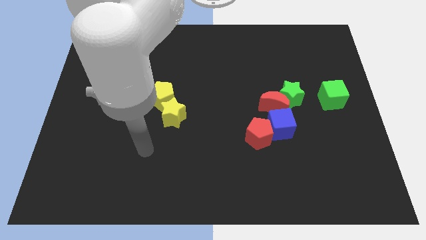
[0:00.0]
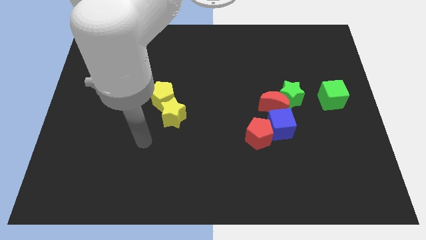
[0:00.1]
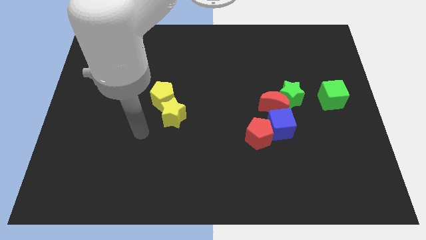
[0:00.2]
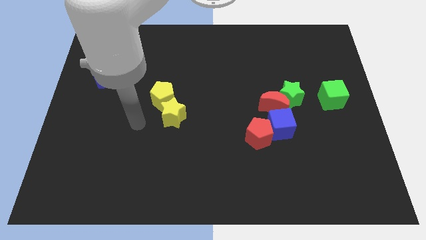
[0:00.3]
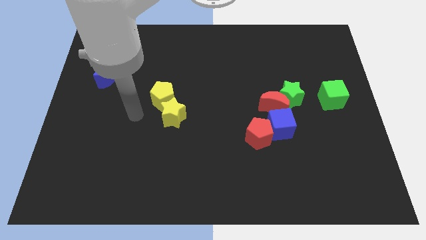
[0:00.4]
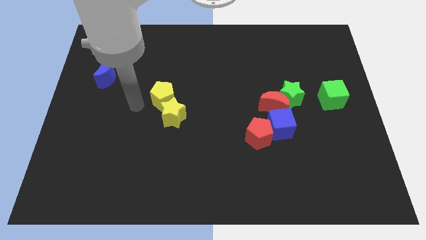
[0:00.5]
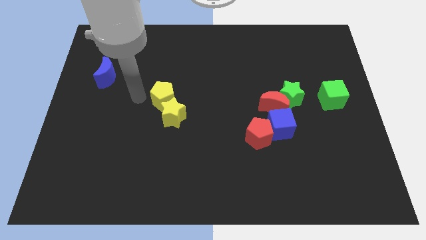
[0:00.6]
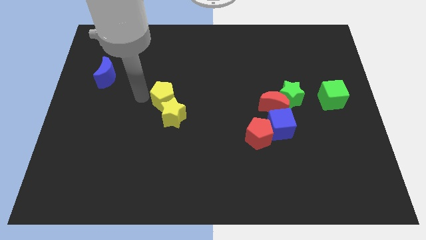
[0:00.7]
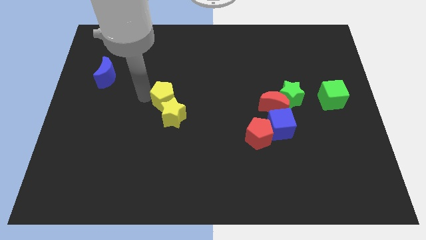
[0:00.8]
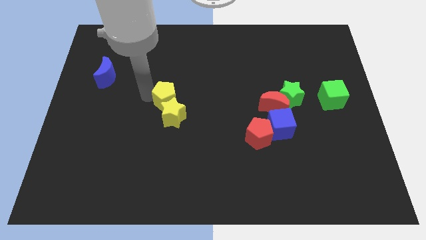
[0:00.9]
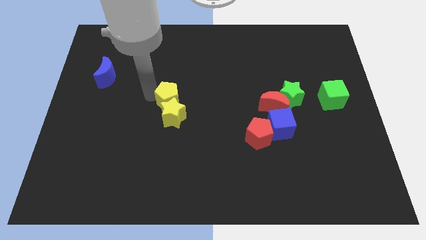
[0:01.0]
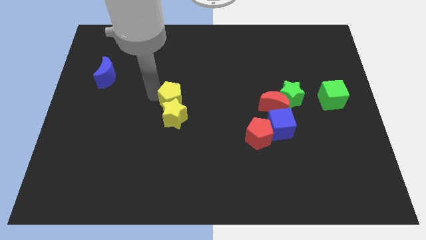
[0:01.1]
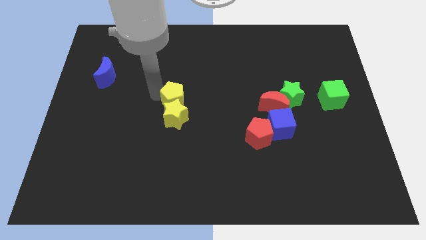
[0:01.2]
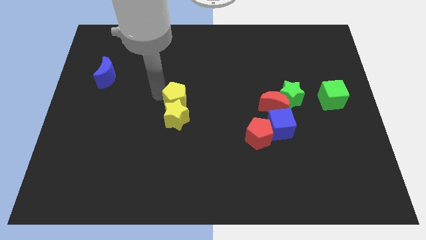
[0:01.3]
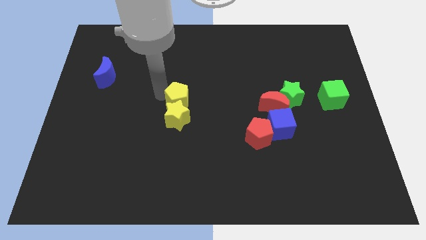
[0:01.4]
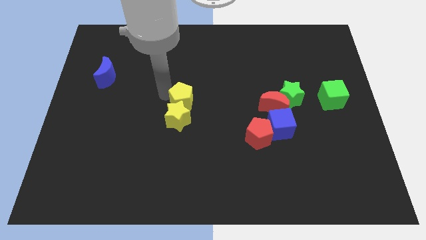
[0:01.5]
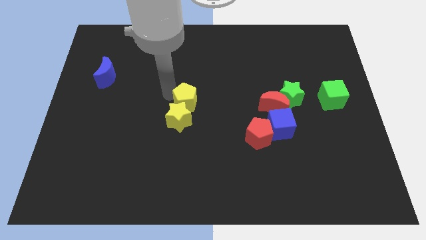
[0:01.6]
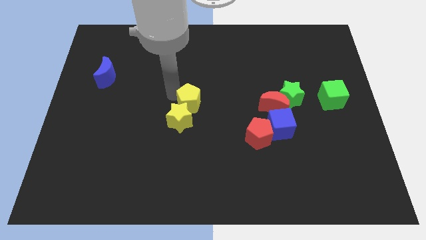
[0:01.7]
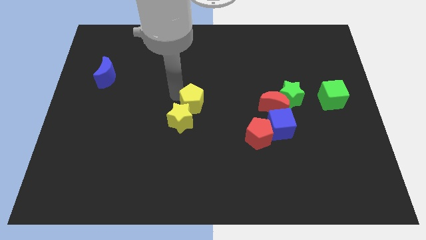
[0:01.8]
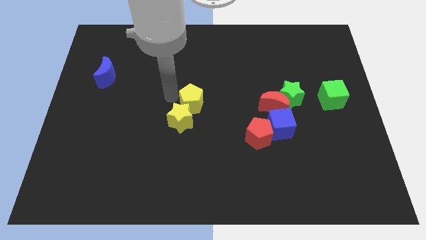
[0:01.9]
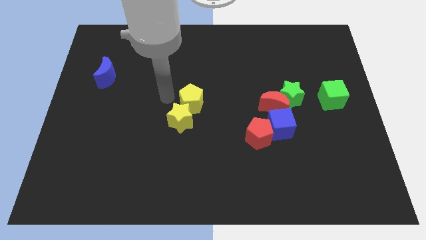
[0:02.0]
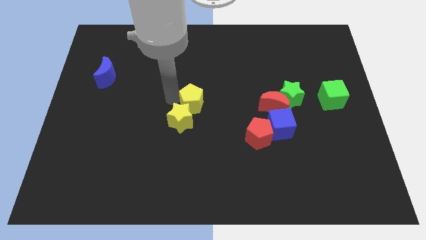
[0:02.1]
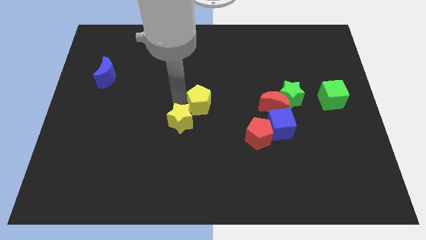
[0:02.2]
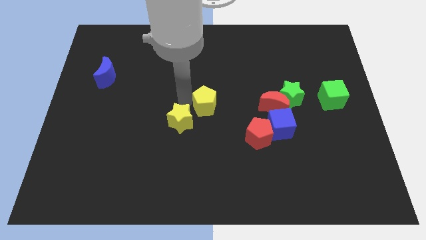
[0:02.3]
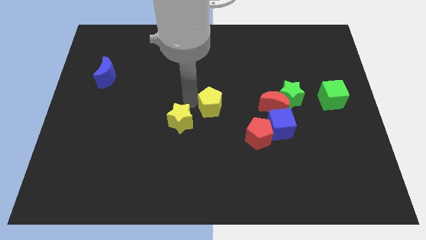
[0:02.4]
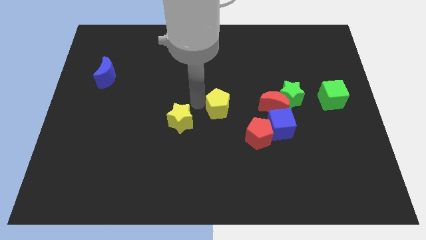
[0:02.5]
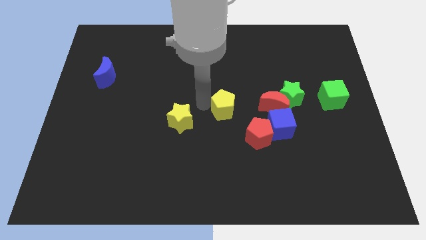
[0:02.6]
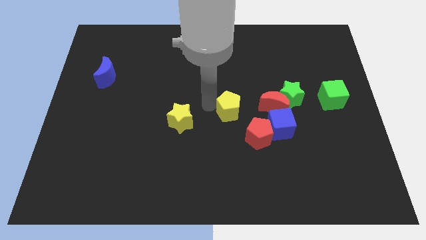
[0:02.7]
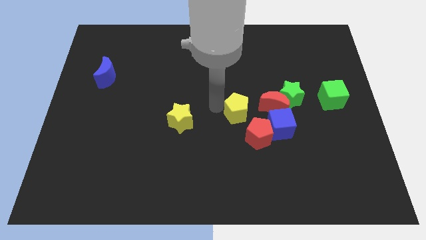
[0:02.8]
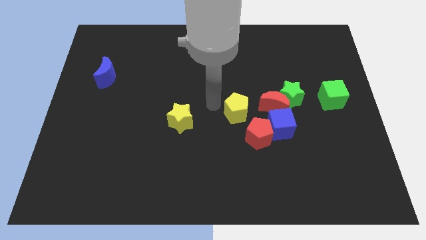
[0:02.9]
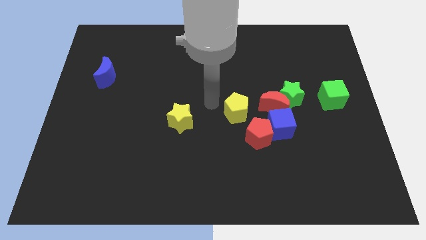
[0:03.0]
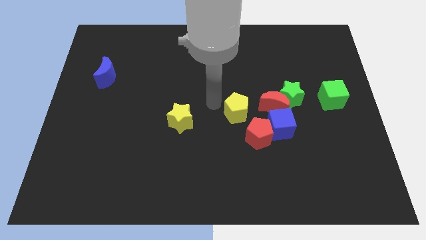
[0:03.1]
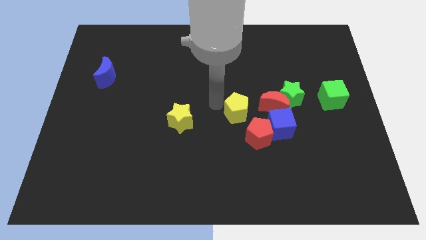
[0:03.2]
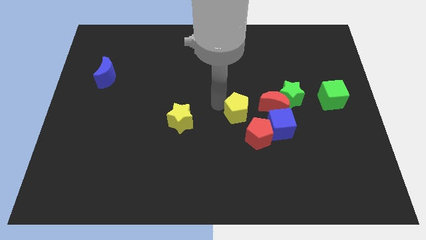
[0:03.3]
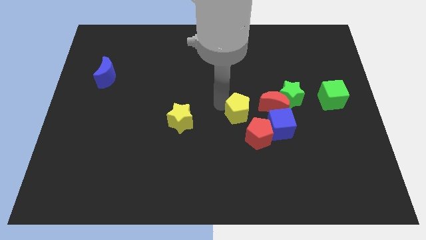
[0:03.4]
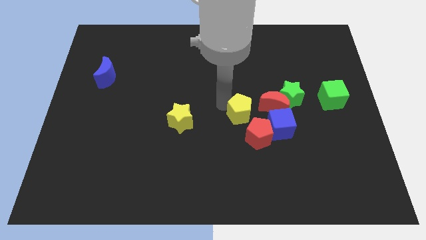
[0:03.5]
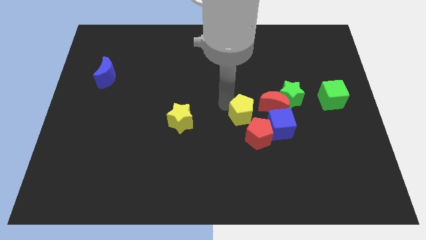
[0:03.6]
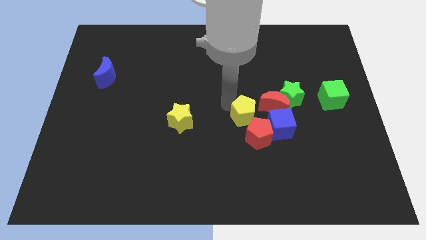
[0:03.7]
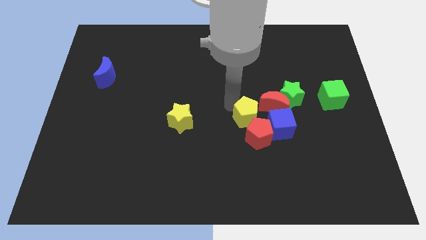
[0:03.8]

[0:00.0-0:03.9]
put the yellow pentagon towards the red pentagon

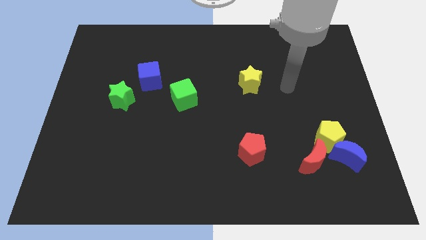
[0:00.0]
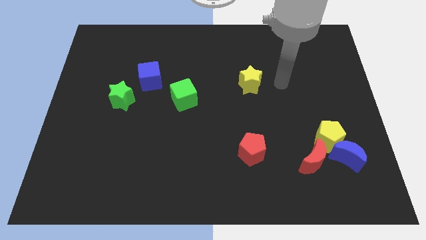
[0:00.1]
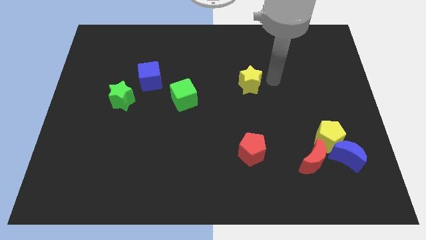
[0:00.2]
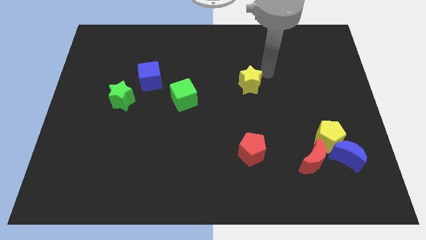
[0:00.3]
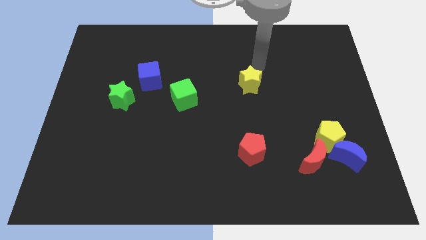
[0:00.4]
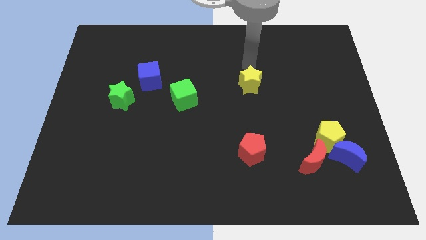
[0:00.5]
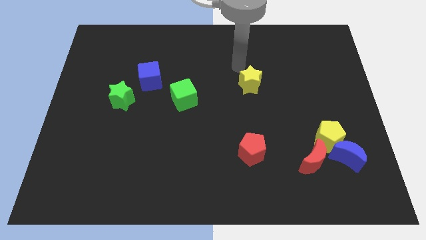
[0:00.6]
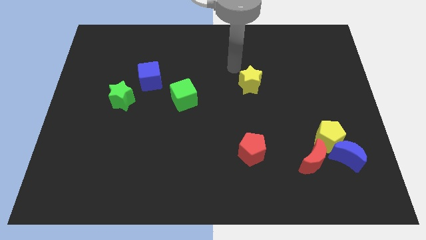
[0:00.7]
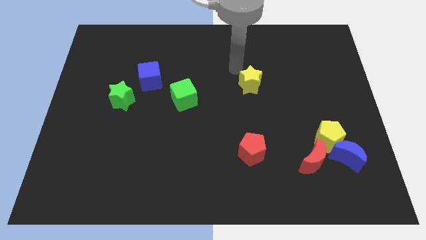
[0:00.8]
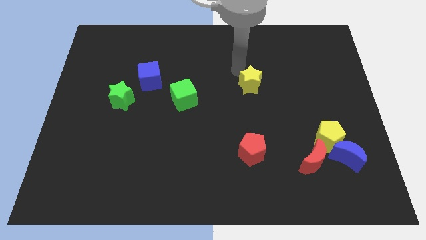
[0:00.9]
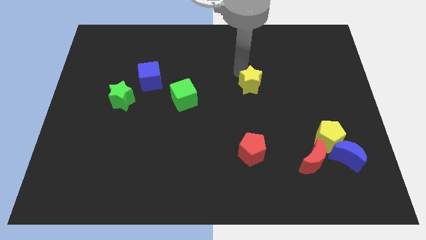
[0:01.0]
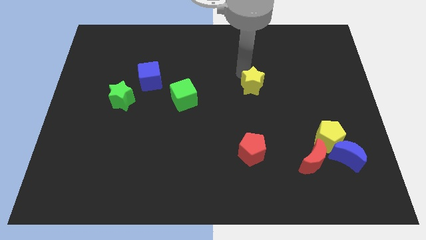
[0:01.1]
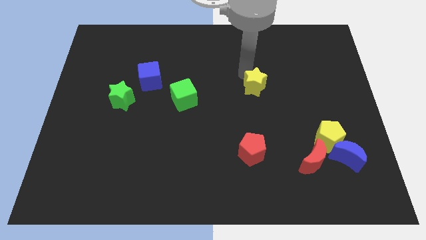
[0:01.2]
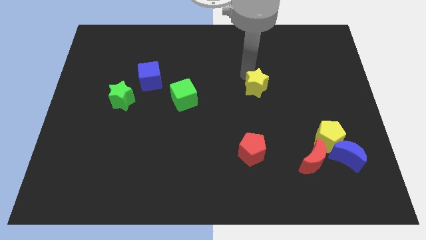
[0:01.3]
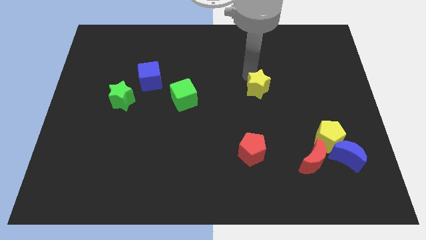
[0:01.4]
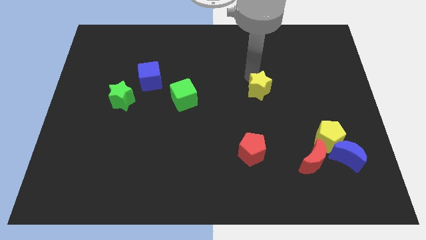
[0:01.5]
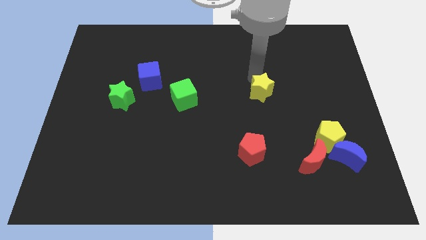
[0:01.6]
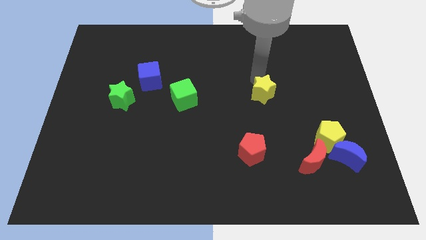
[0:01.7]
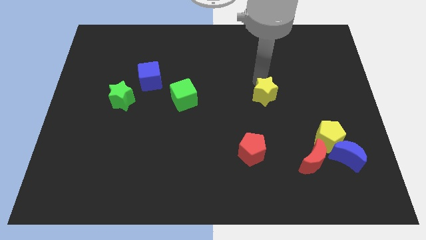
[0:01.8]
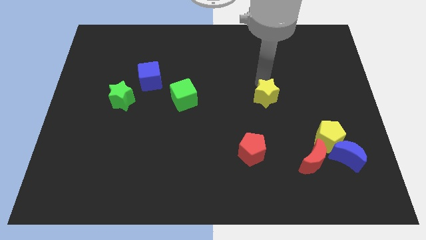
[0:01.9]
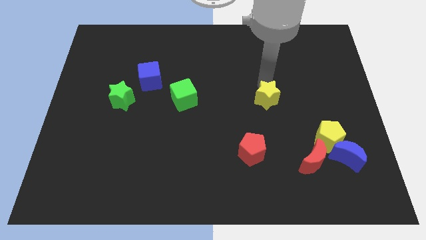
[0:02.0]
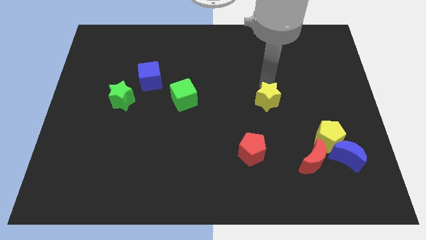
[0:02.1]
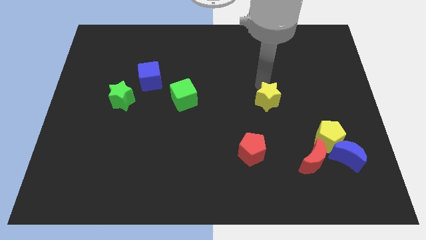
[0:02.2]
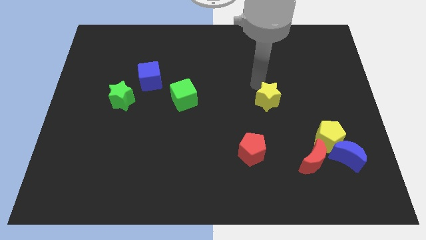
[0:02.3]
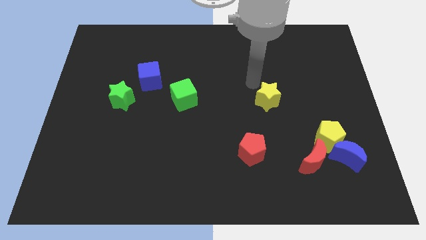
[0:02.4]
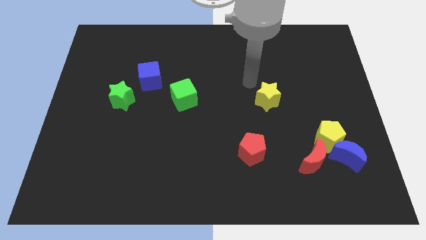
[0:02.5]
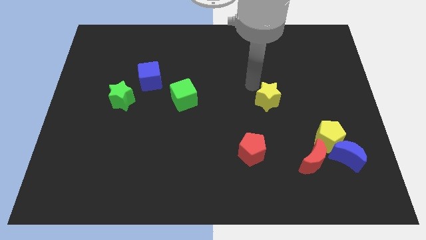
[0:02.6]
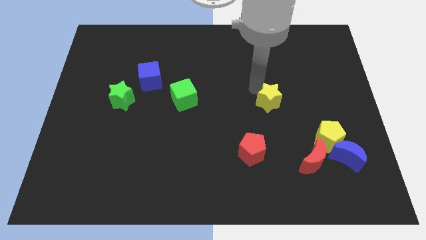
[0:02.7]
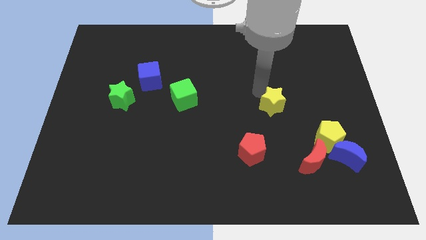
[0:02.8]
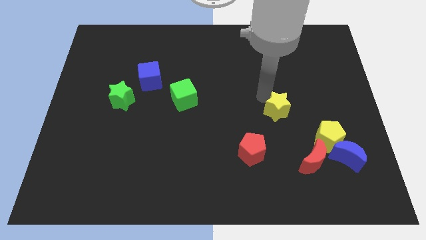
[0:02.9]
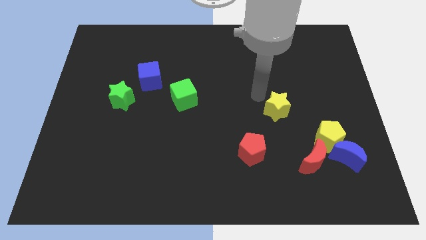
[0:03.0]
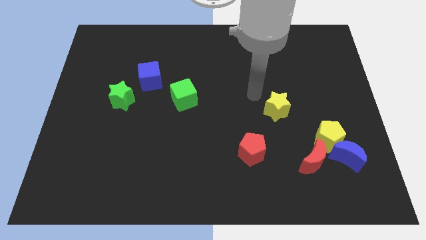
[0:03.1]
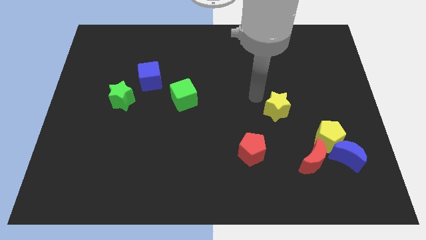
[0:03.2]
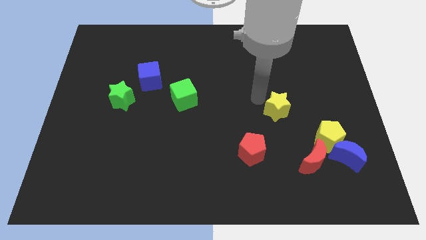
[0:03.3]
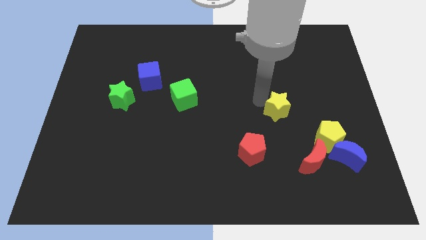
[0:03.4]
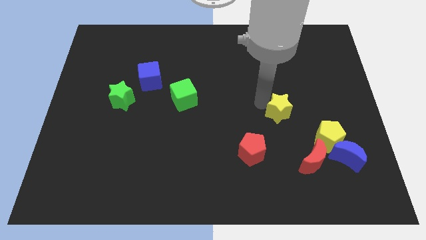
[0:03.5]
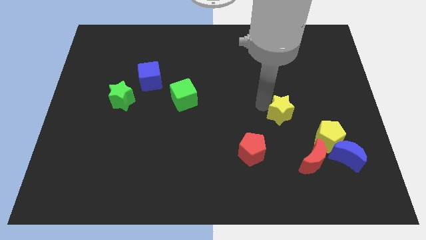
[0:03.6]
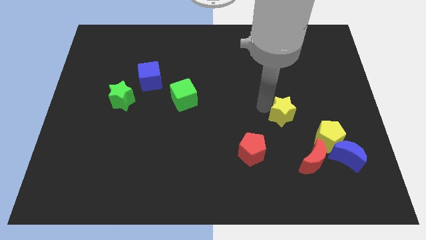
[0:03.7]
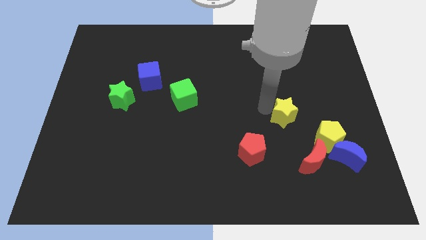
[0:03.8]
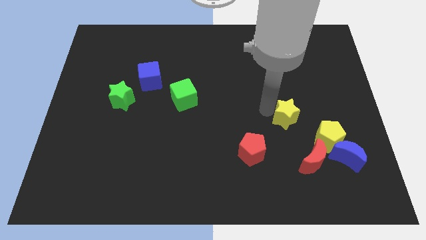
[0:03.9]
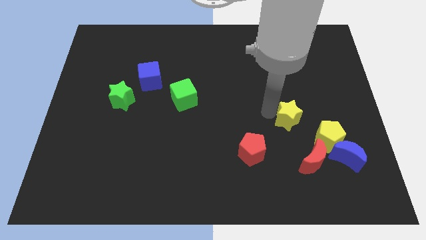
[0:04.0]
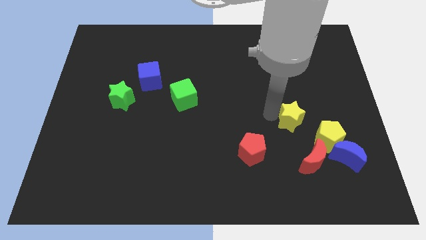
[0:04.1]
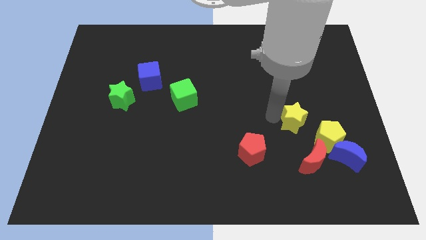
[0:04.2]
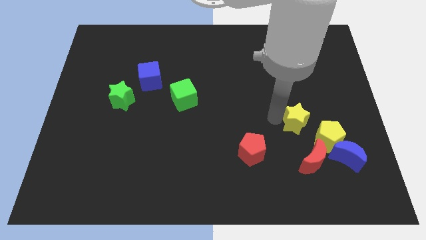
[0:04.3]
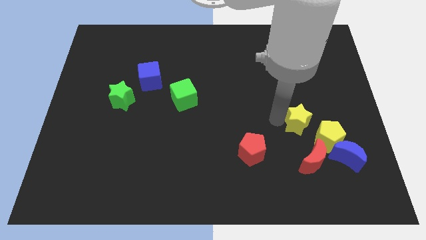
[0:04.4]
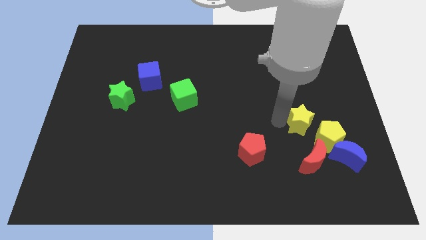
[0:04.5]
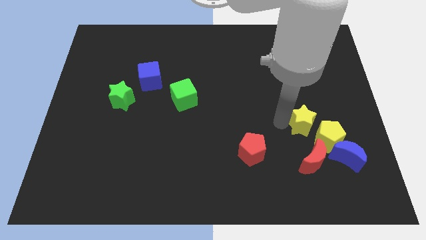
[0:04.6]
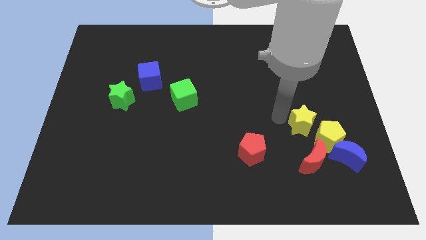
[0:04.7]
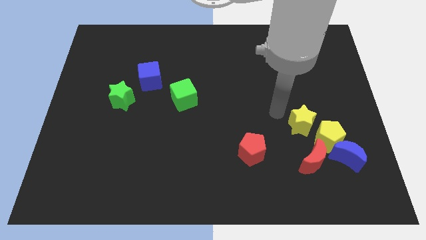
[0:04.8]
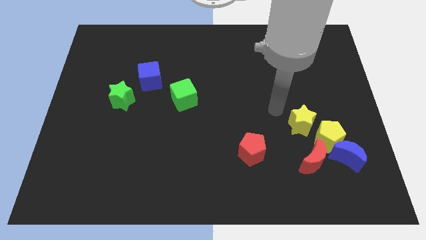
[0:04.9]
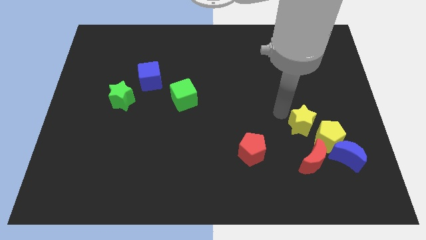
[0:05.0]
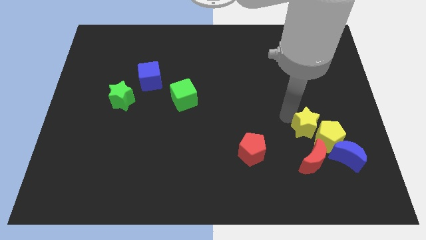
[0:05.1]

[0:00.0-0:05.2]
slide the yellow star to the yellow pentagon
